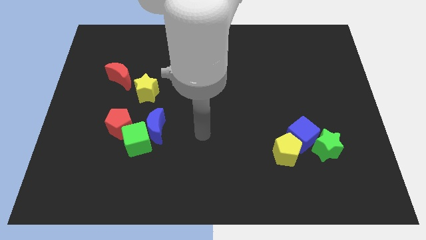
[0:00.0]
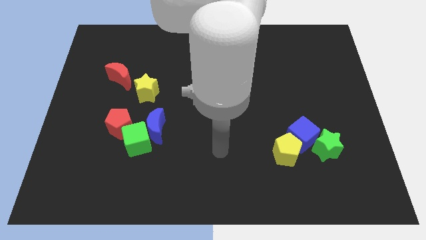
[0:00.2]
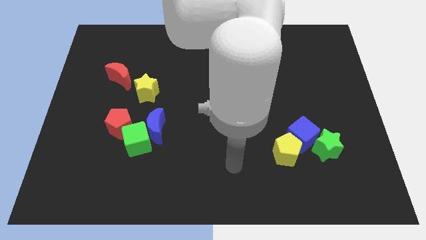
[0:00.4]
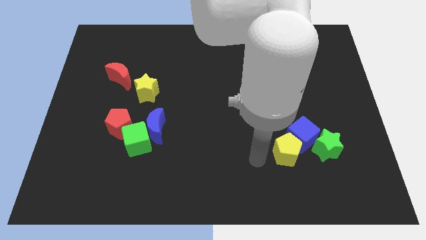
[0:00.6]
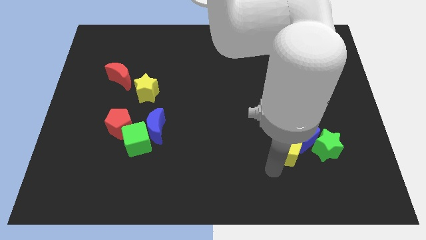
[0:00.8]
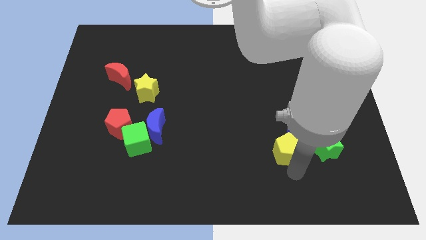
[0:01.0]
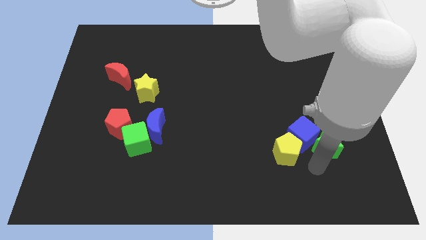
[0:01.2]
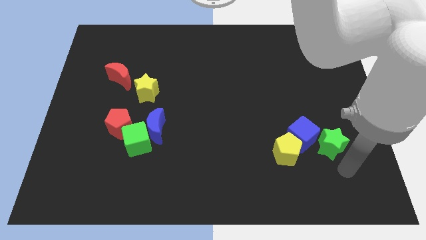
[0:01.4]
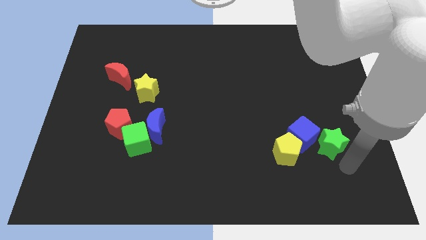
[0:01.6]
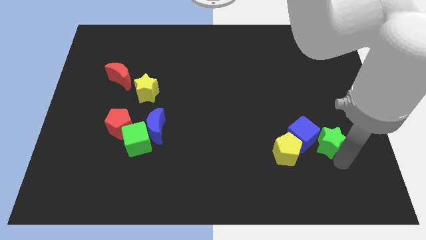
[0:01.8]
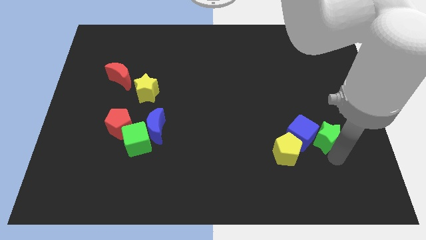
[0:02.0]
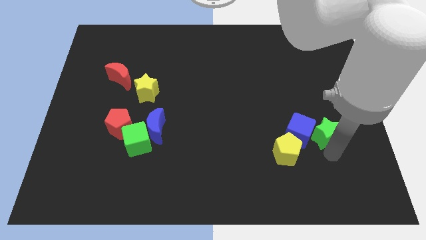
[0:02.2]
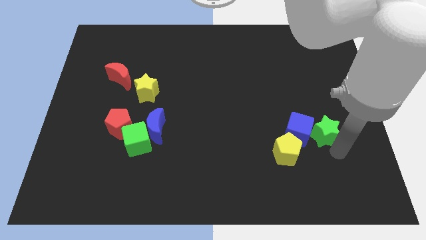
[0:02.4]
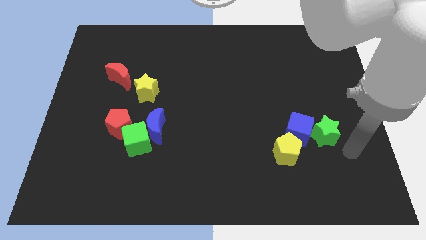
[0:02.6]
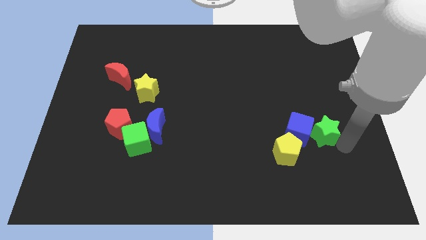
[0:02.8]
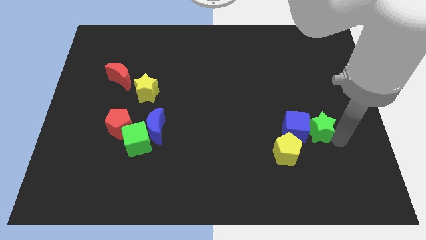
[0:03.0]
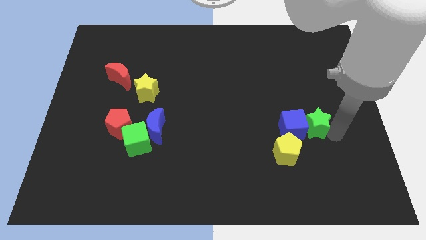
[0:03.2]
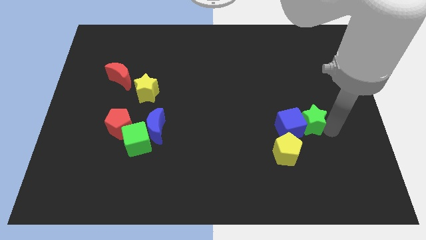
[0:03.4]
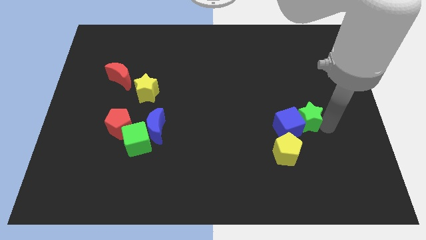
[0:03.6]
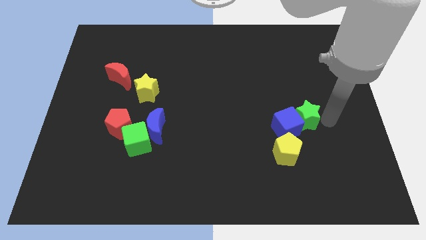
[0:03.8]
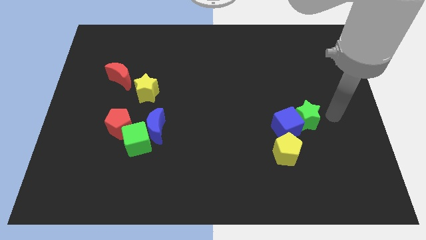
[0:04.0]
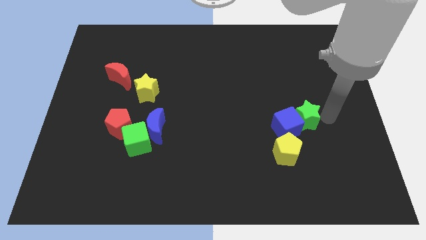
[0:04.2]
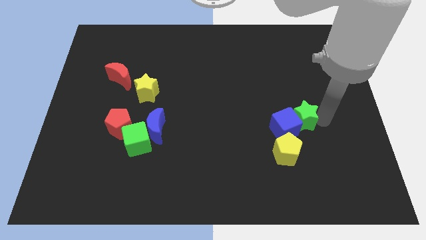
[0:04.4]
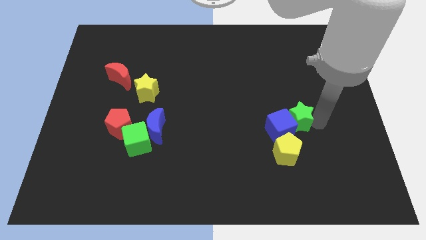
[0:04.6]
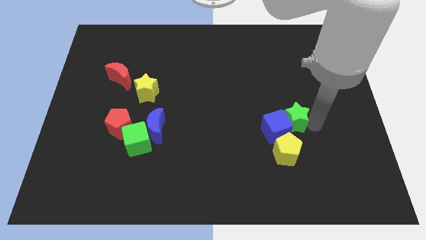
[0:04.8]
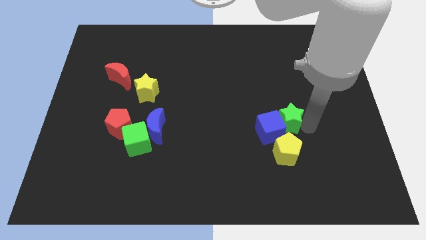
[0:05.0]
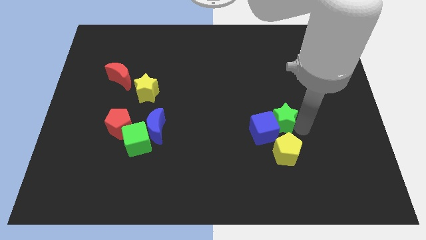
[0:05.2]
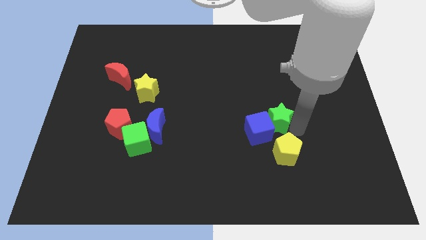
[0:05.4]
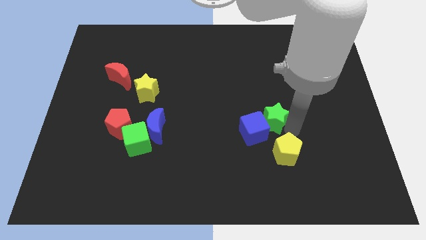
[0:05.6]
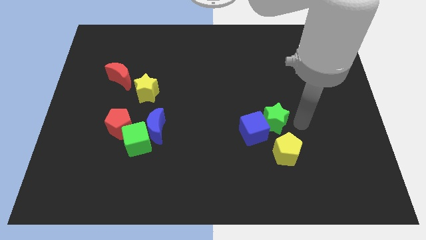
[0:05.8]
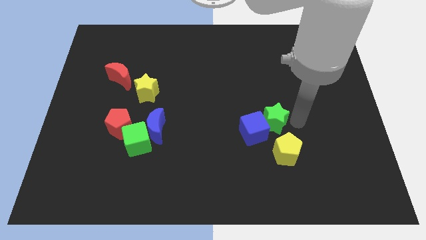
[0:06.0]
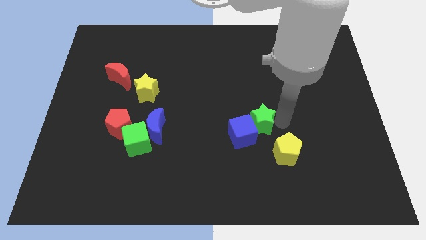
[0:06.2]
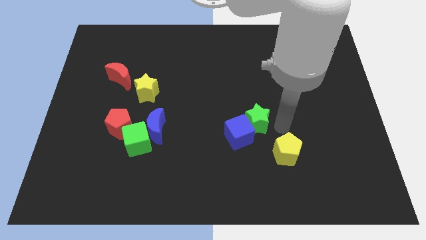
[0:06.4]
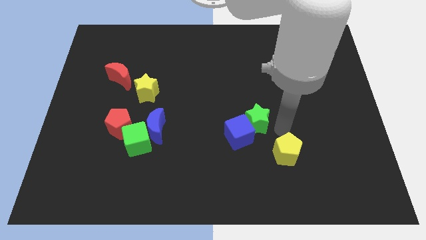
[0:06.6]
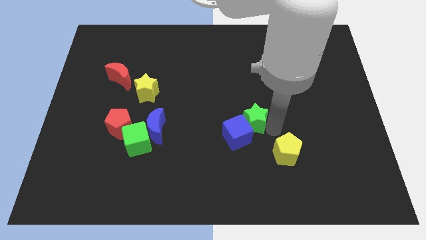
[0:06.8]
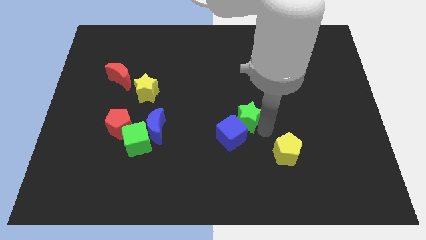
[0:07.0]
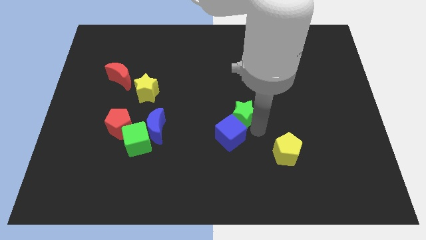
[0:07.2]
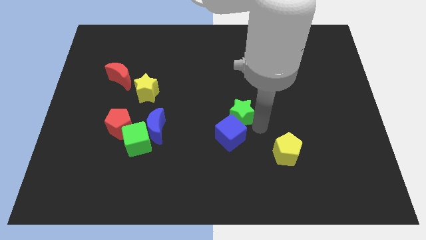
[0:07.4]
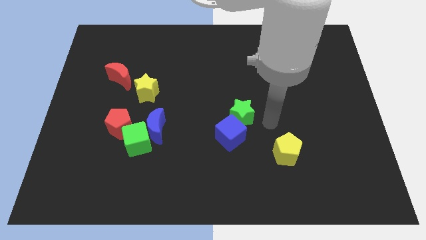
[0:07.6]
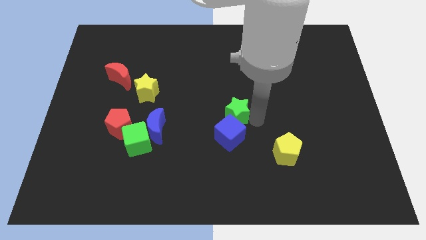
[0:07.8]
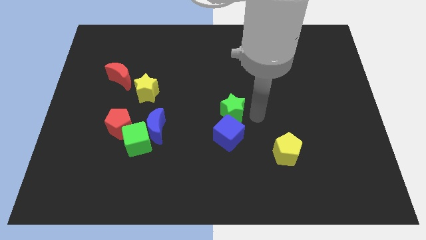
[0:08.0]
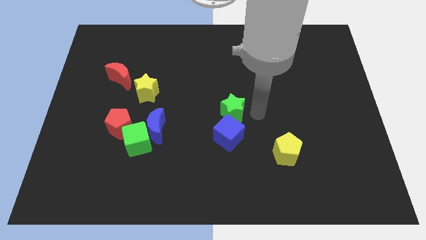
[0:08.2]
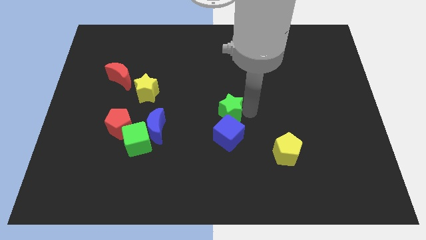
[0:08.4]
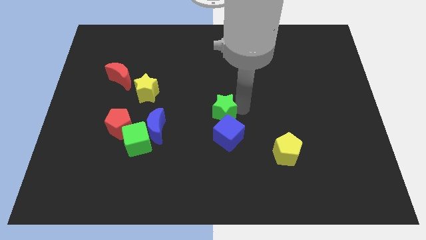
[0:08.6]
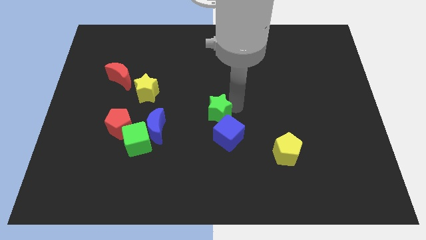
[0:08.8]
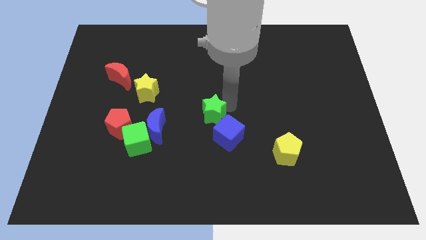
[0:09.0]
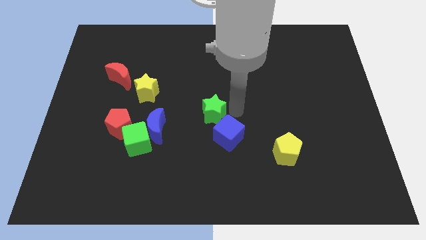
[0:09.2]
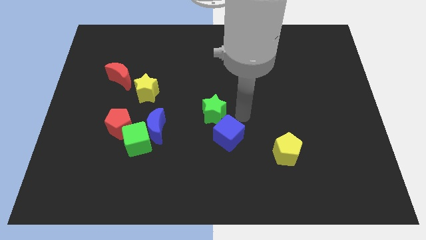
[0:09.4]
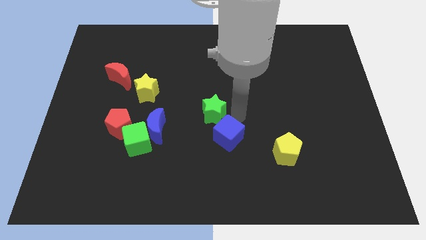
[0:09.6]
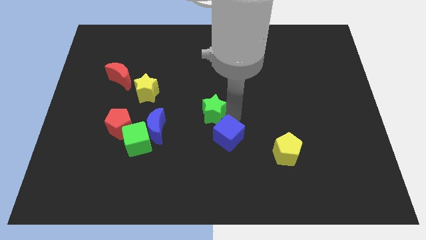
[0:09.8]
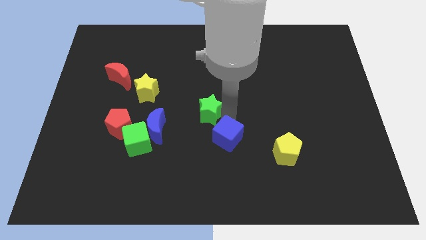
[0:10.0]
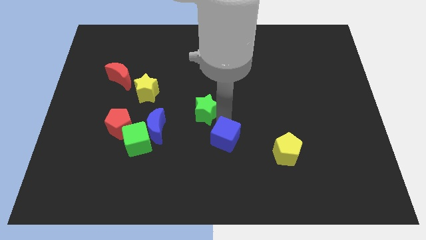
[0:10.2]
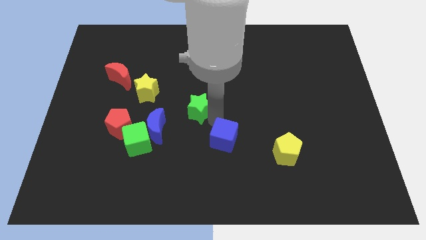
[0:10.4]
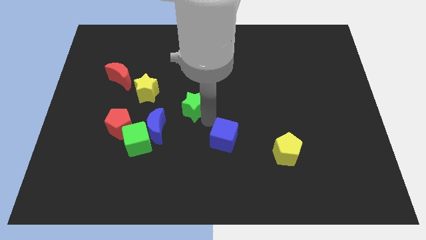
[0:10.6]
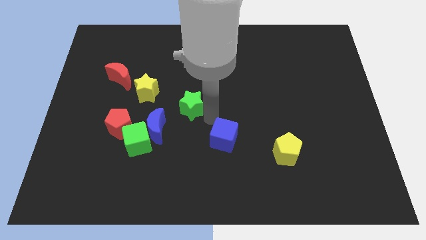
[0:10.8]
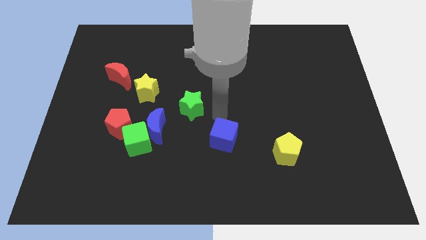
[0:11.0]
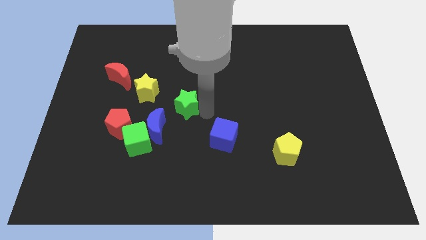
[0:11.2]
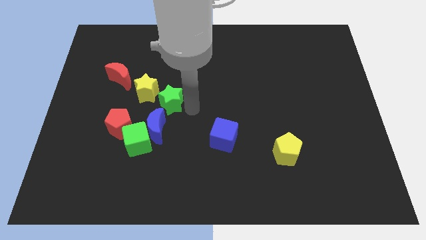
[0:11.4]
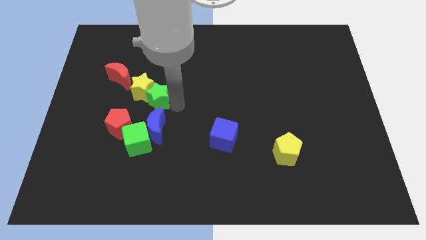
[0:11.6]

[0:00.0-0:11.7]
put the green star to the yellow star

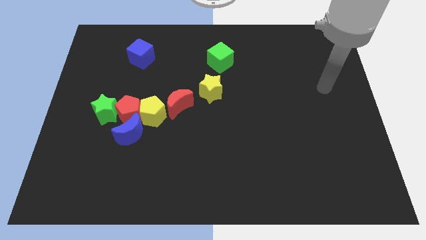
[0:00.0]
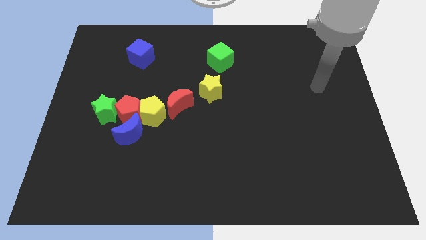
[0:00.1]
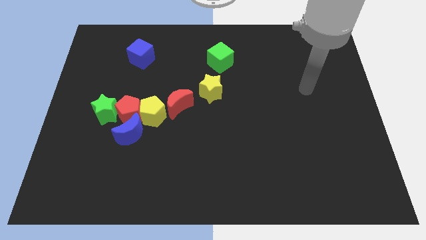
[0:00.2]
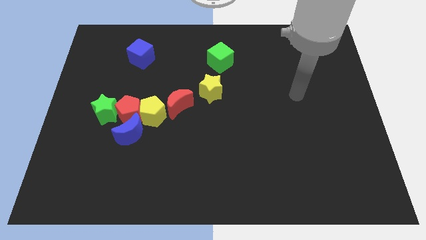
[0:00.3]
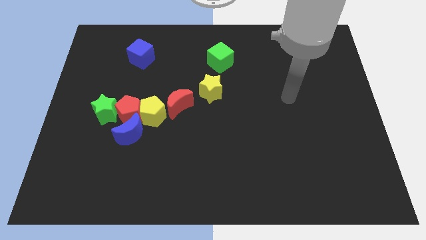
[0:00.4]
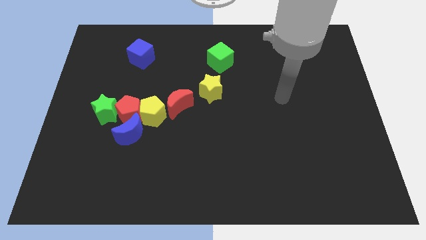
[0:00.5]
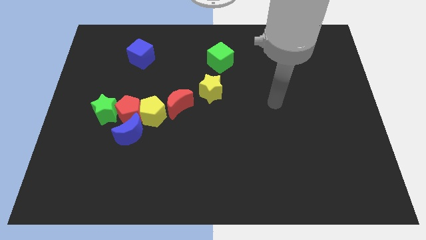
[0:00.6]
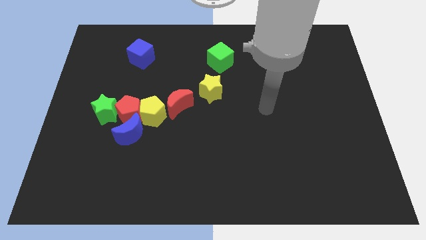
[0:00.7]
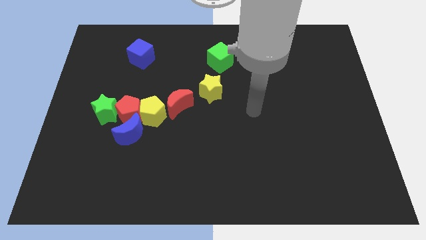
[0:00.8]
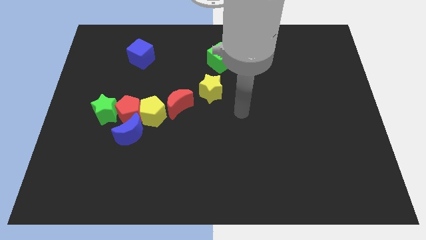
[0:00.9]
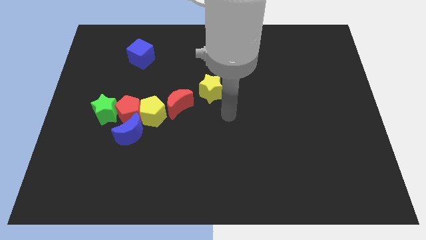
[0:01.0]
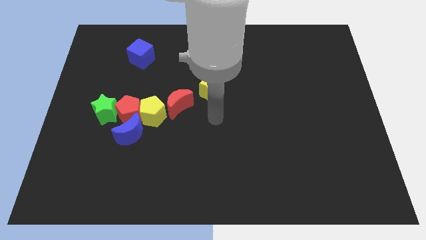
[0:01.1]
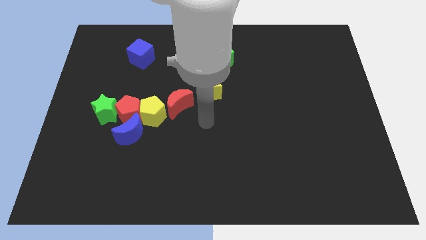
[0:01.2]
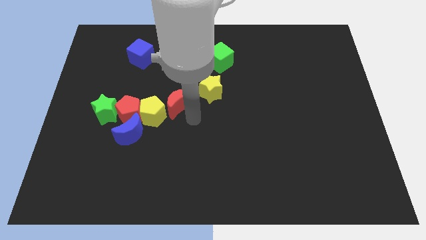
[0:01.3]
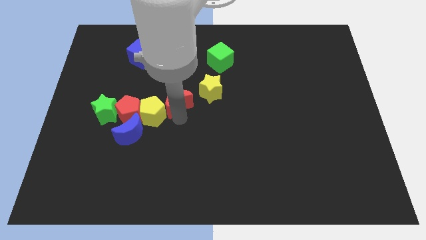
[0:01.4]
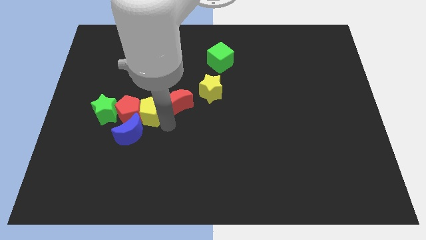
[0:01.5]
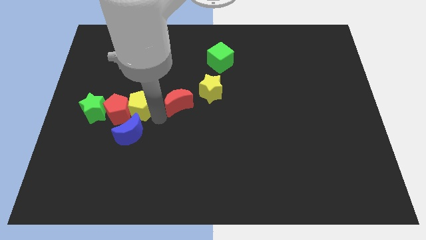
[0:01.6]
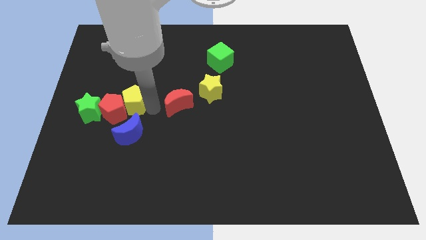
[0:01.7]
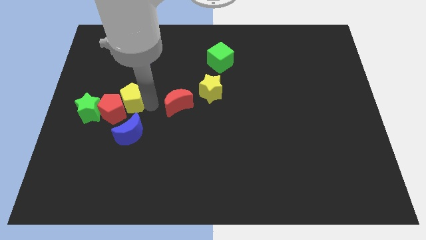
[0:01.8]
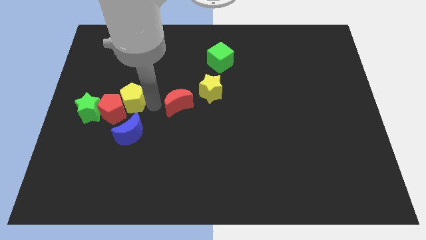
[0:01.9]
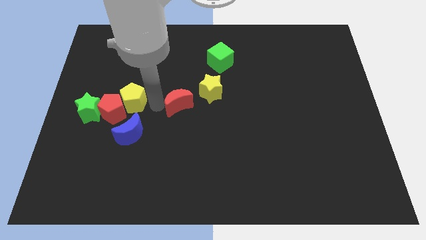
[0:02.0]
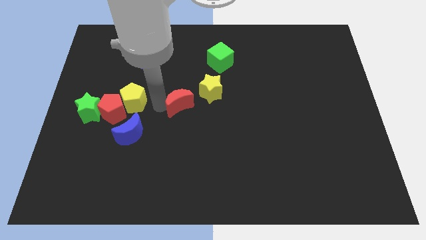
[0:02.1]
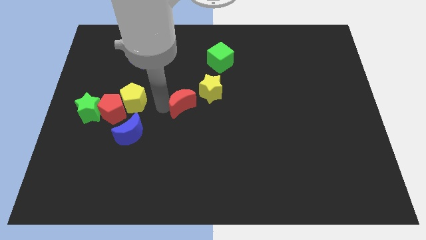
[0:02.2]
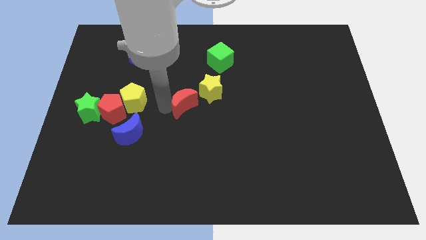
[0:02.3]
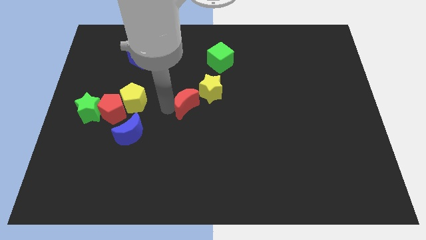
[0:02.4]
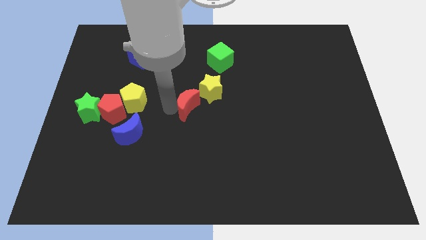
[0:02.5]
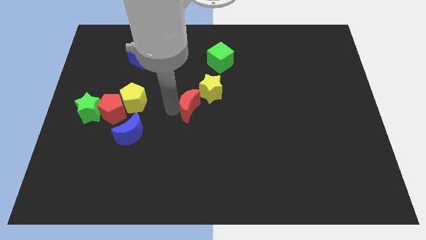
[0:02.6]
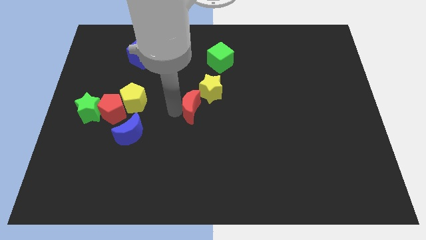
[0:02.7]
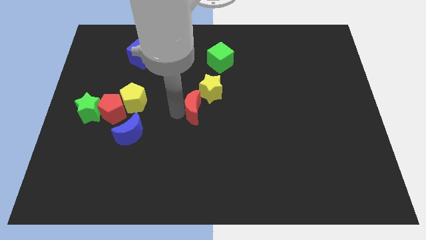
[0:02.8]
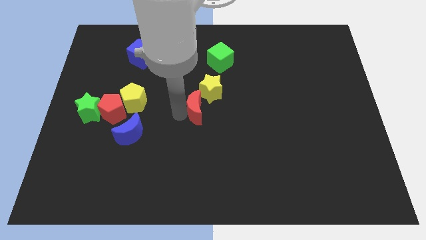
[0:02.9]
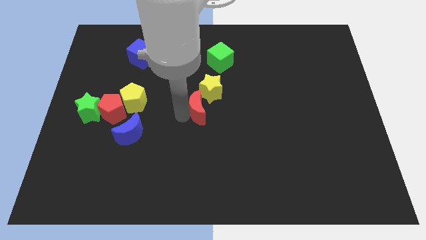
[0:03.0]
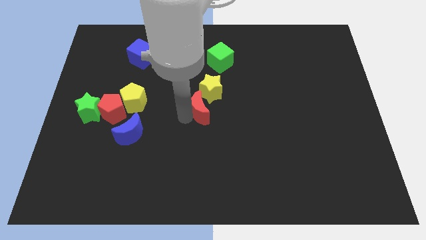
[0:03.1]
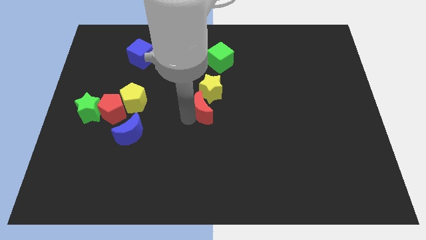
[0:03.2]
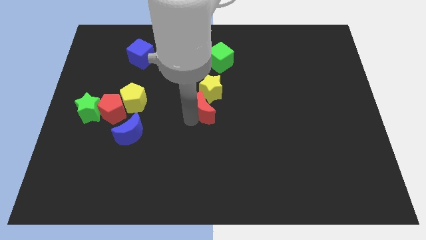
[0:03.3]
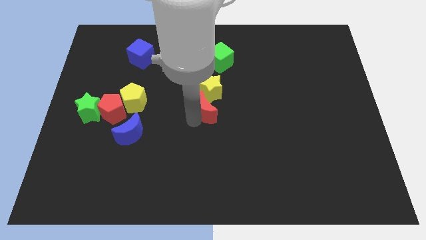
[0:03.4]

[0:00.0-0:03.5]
slide the red moon to the yellow star
